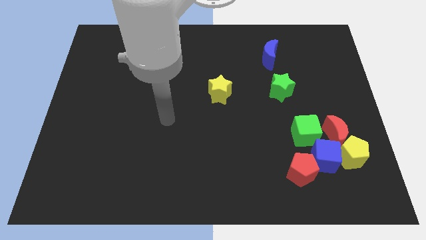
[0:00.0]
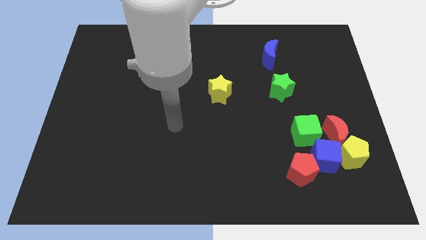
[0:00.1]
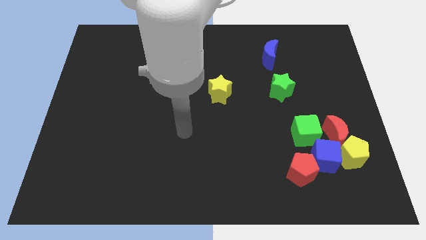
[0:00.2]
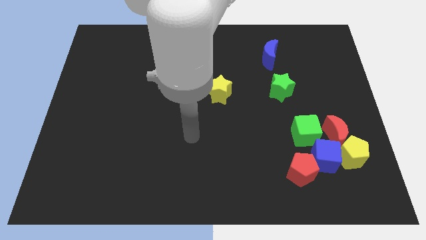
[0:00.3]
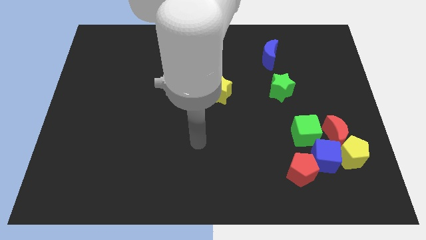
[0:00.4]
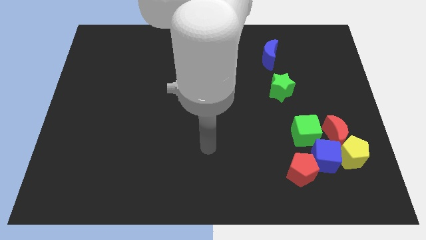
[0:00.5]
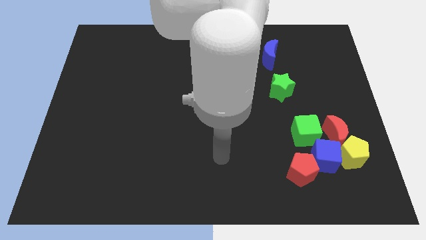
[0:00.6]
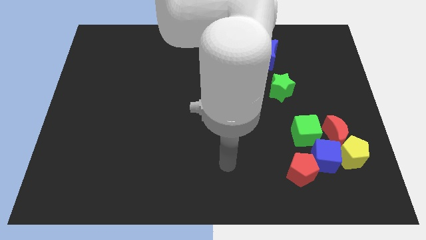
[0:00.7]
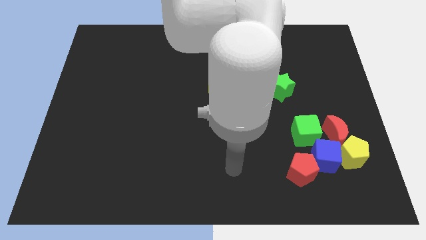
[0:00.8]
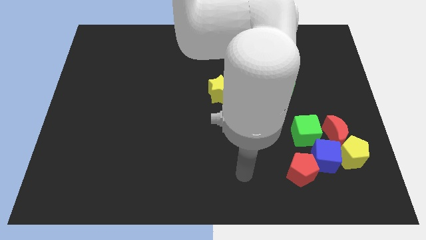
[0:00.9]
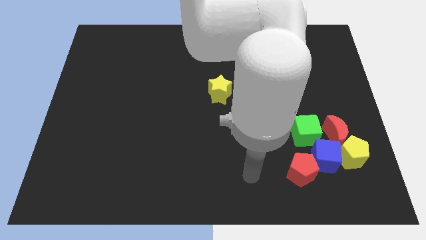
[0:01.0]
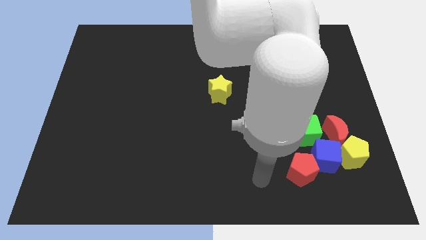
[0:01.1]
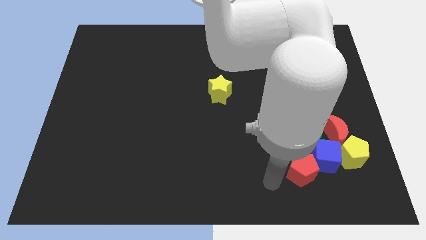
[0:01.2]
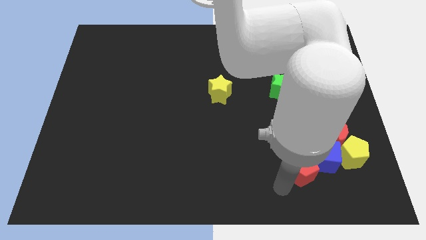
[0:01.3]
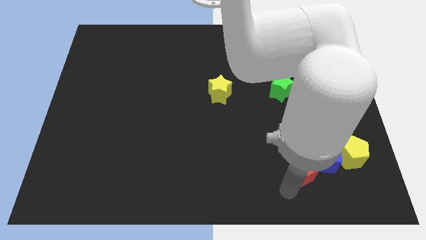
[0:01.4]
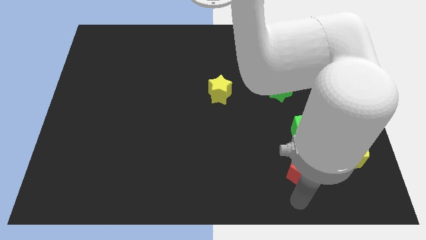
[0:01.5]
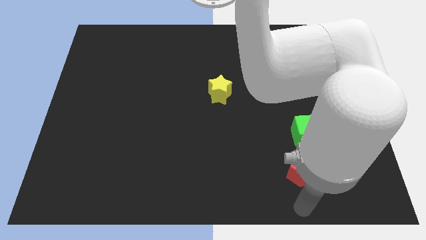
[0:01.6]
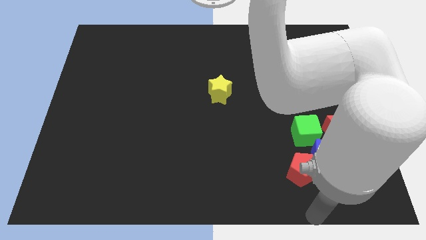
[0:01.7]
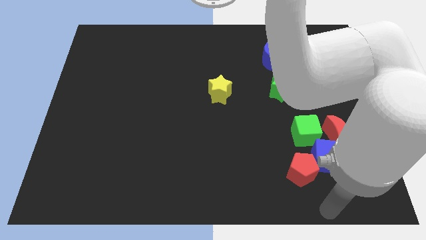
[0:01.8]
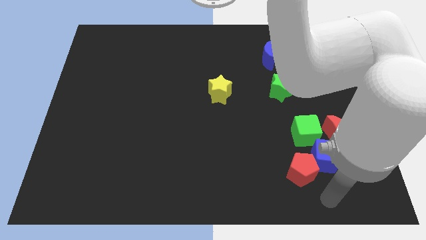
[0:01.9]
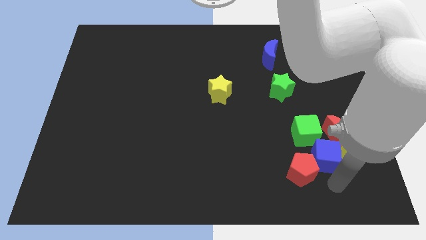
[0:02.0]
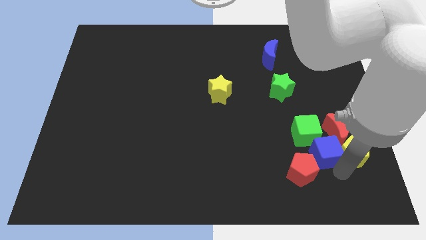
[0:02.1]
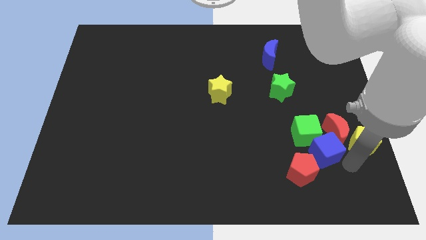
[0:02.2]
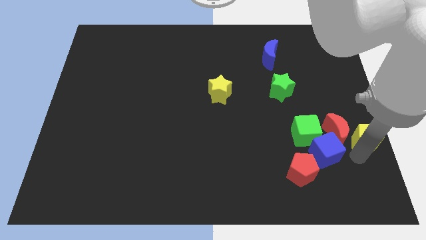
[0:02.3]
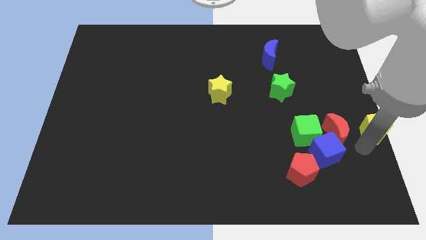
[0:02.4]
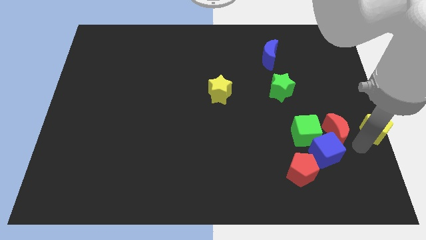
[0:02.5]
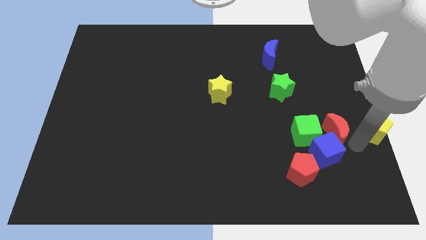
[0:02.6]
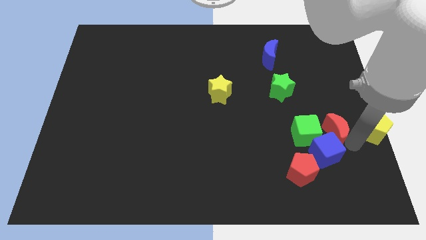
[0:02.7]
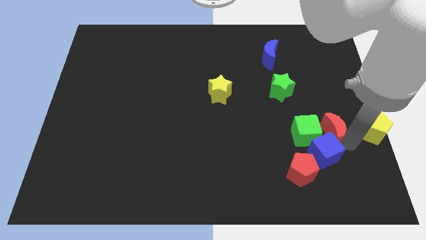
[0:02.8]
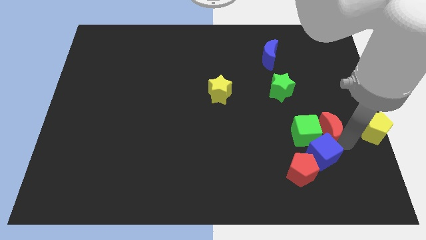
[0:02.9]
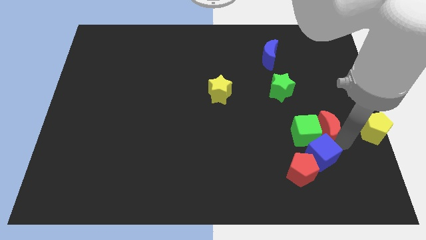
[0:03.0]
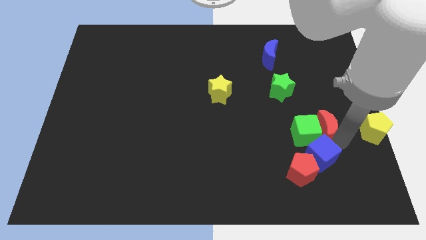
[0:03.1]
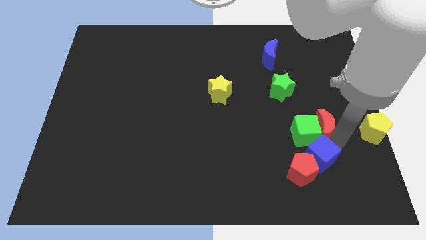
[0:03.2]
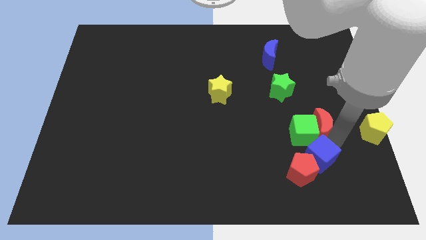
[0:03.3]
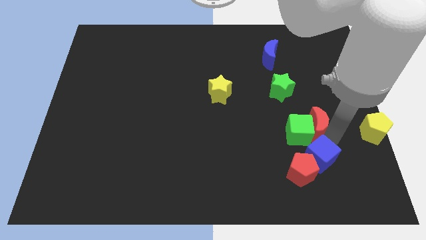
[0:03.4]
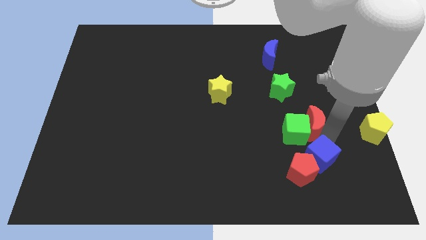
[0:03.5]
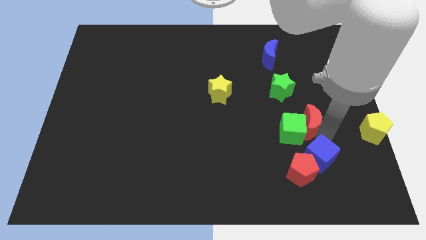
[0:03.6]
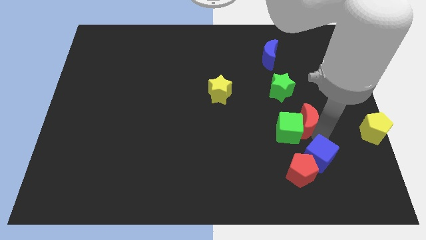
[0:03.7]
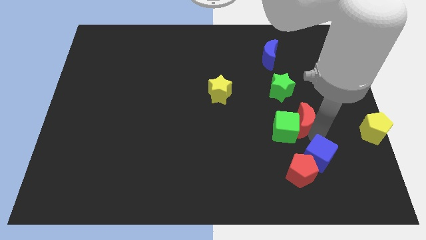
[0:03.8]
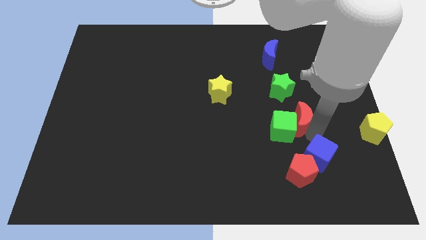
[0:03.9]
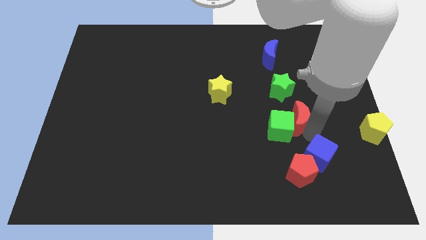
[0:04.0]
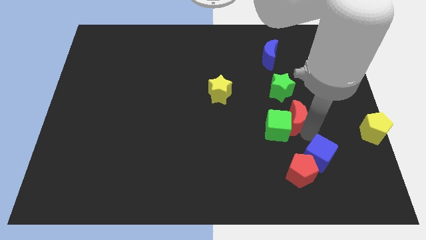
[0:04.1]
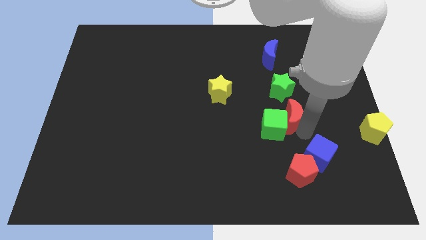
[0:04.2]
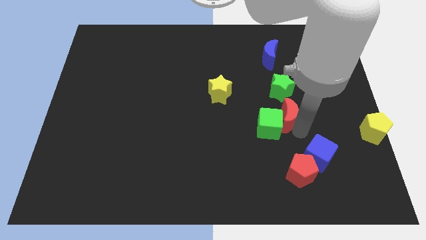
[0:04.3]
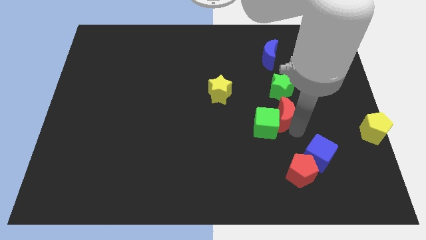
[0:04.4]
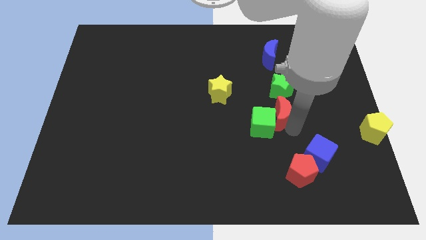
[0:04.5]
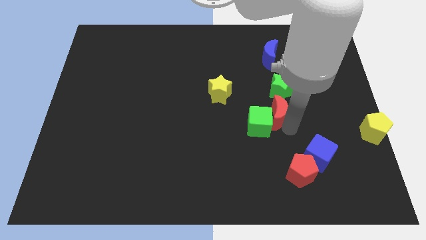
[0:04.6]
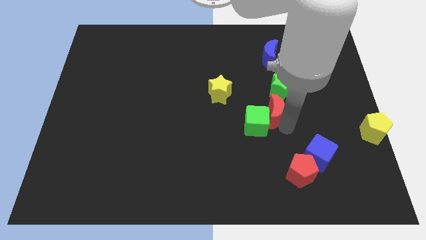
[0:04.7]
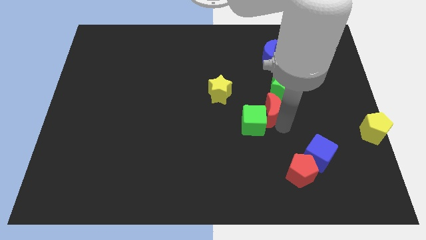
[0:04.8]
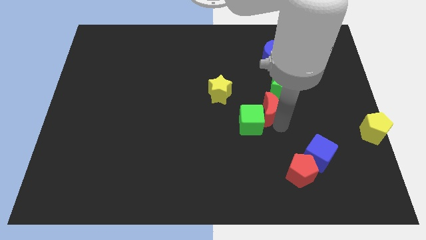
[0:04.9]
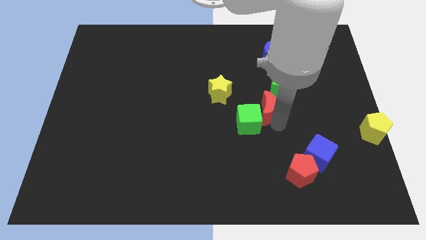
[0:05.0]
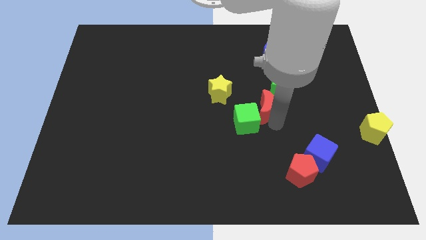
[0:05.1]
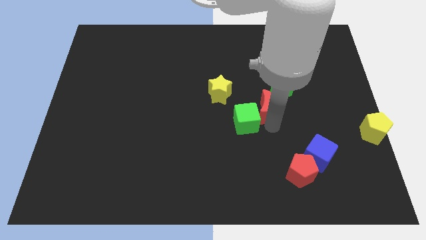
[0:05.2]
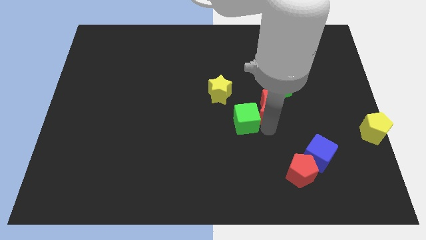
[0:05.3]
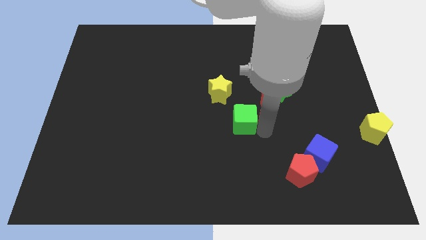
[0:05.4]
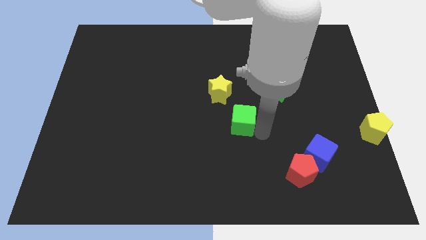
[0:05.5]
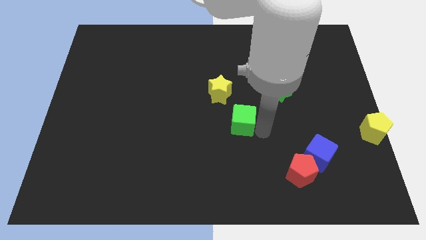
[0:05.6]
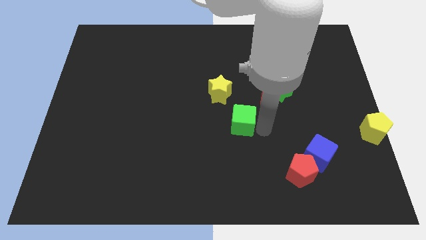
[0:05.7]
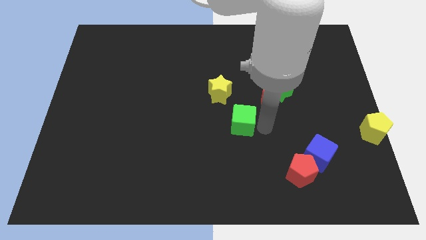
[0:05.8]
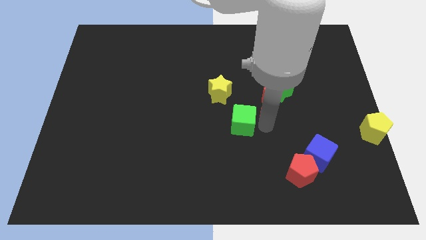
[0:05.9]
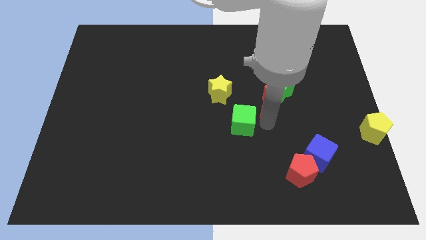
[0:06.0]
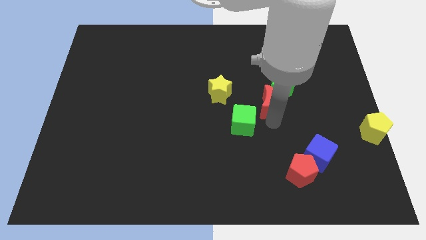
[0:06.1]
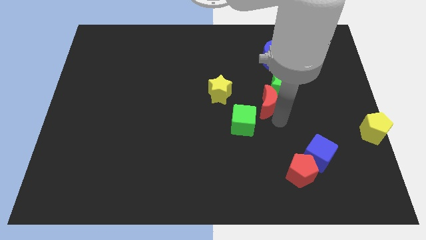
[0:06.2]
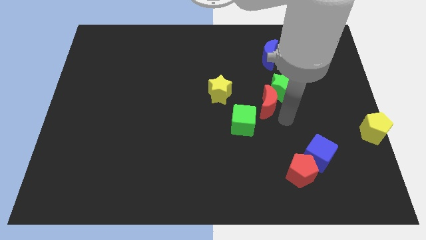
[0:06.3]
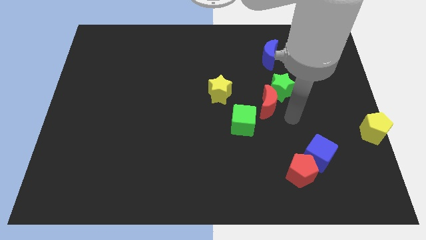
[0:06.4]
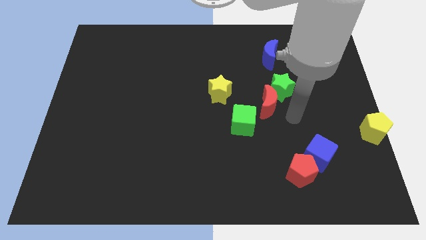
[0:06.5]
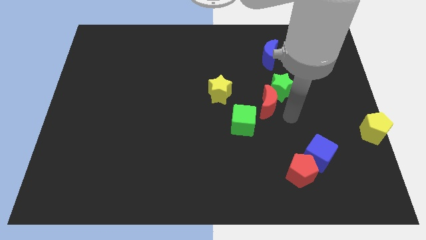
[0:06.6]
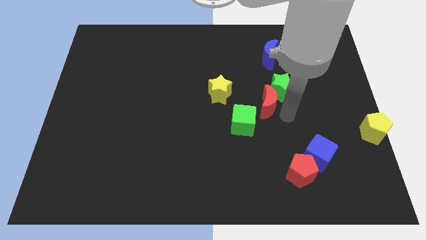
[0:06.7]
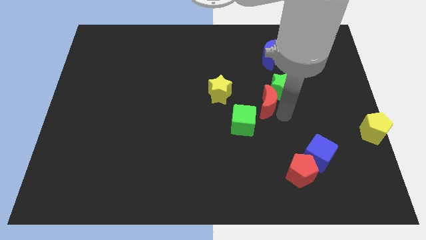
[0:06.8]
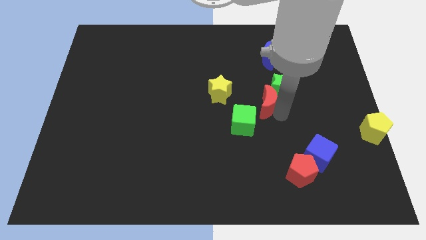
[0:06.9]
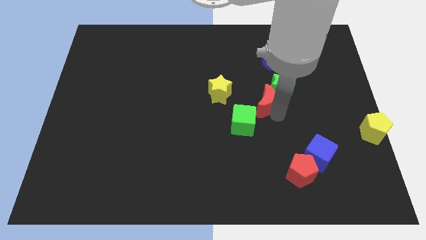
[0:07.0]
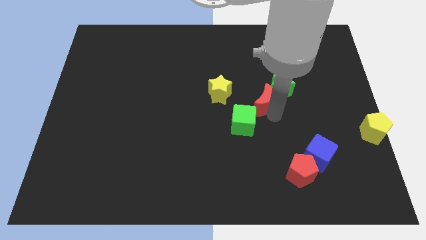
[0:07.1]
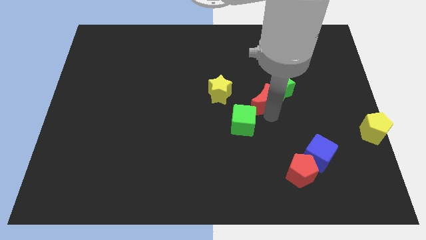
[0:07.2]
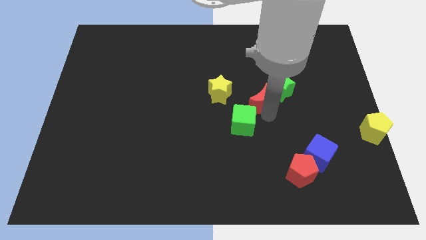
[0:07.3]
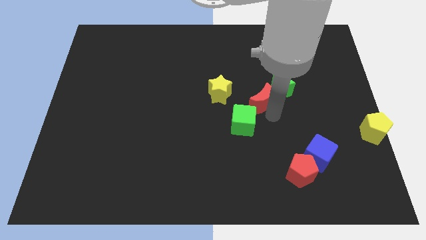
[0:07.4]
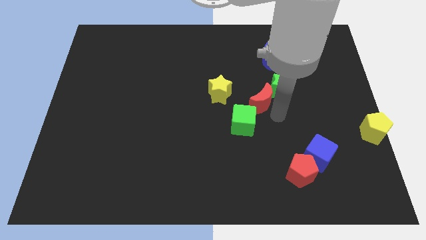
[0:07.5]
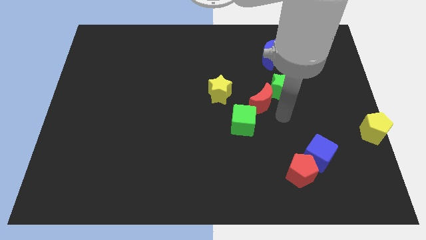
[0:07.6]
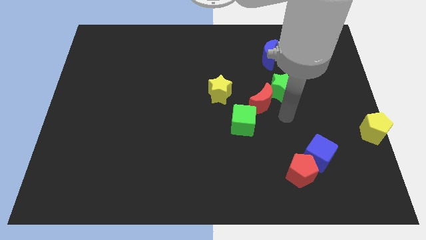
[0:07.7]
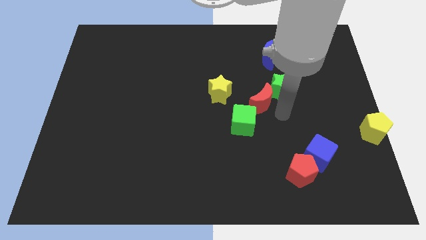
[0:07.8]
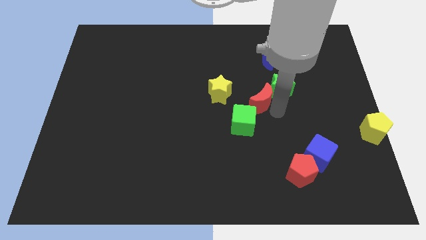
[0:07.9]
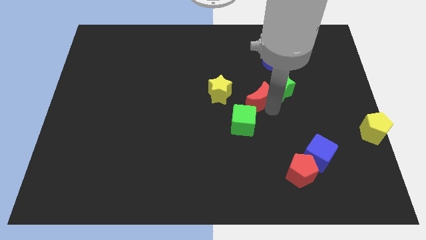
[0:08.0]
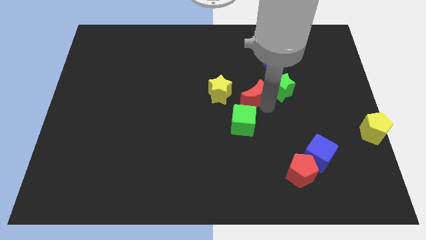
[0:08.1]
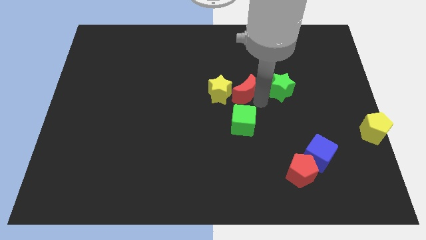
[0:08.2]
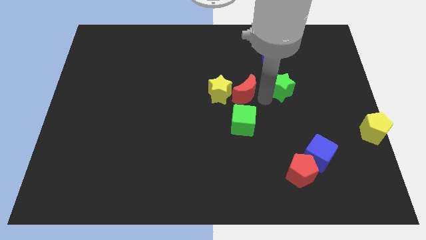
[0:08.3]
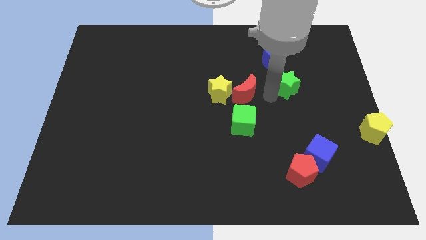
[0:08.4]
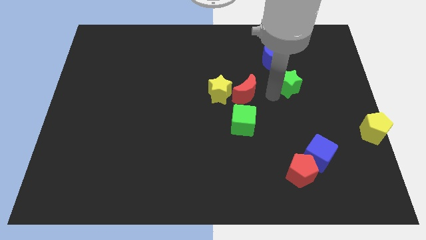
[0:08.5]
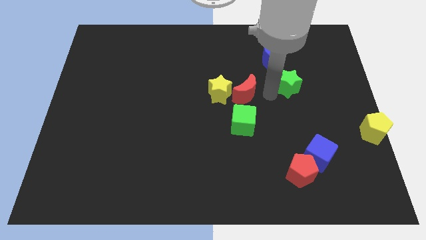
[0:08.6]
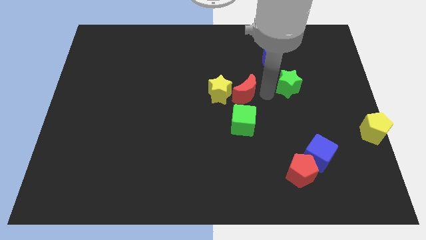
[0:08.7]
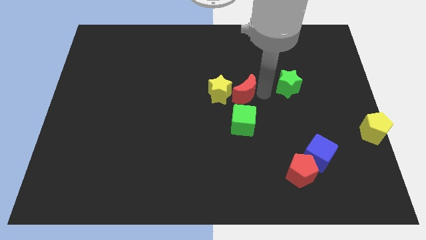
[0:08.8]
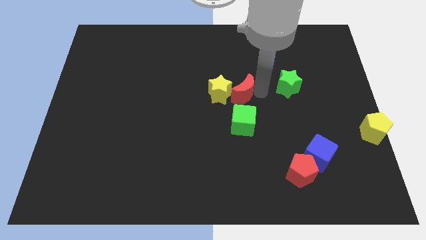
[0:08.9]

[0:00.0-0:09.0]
move the red moon next to the yellow star
